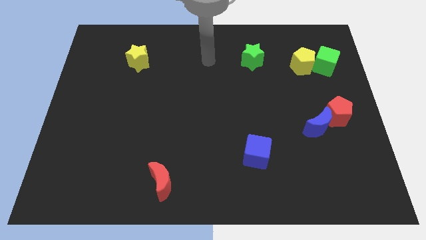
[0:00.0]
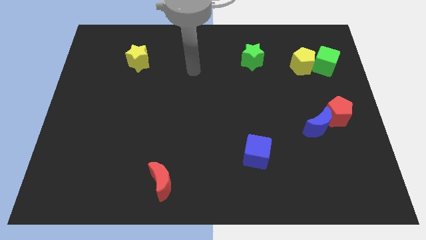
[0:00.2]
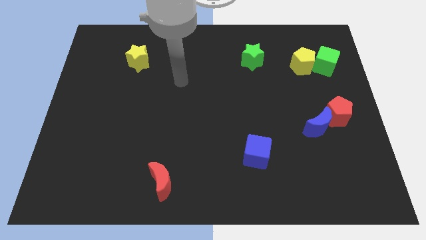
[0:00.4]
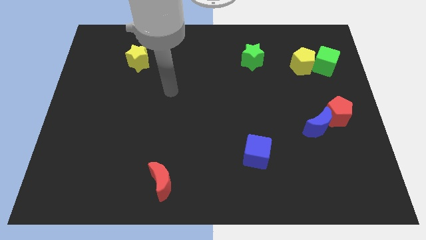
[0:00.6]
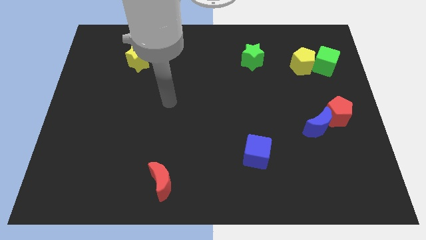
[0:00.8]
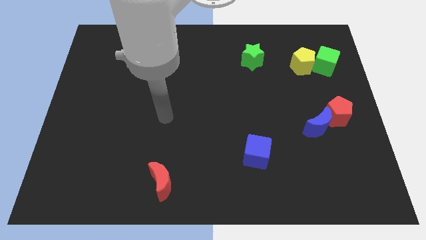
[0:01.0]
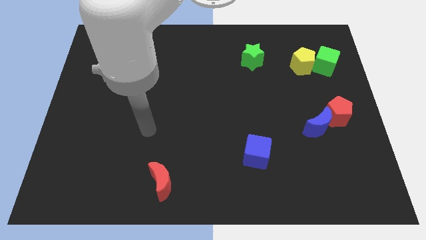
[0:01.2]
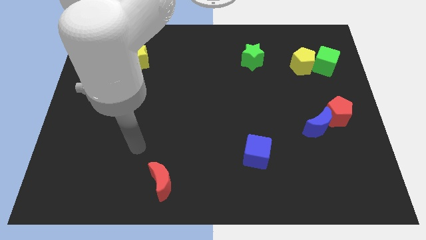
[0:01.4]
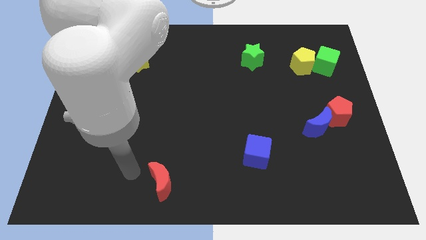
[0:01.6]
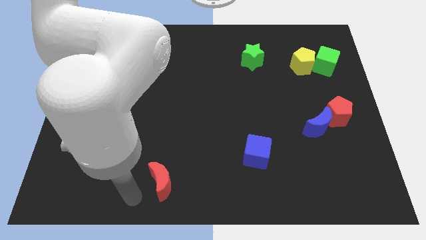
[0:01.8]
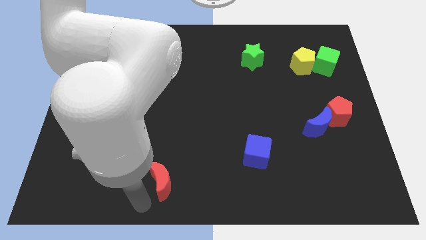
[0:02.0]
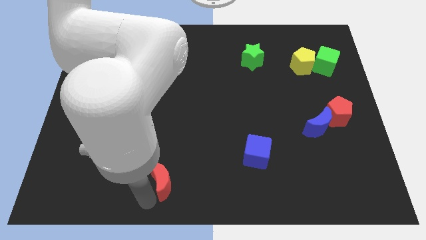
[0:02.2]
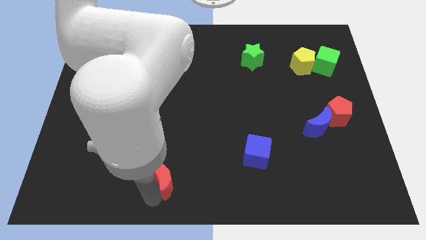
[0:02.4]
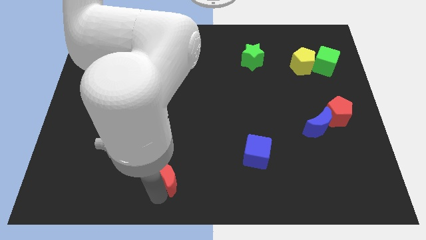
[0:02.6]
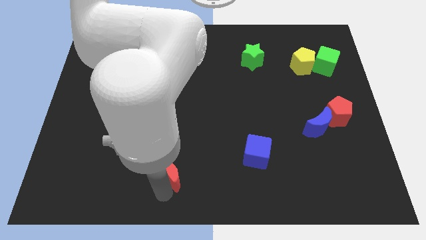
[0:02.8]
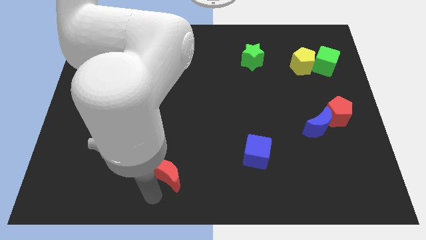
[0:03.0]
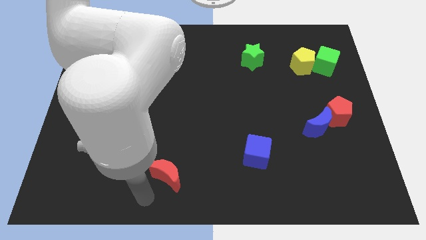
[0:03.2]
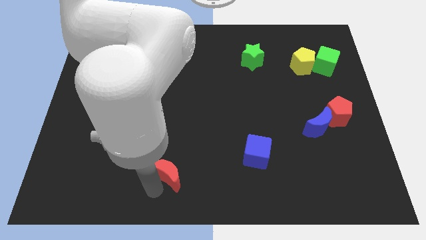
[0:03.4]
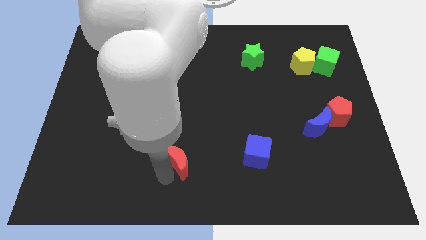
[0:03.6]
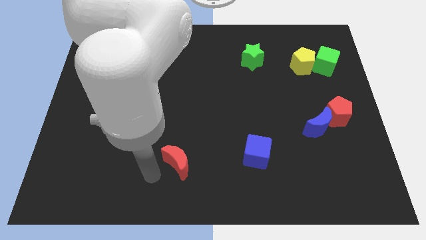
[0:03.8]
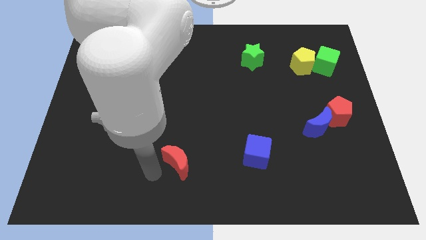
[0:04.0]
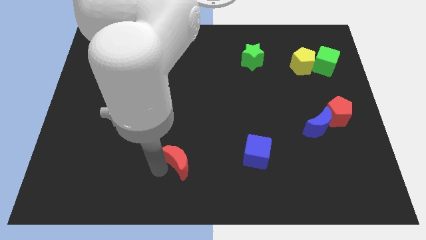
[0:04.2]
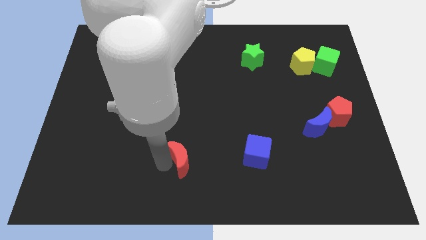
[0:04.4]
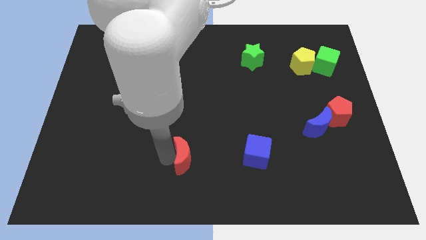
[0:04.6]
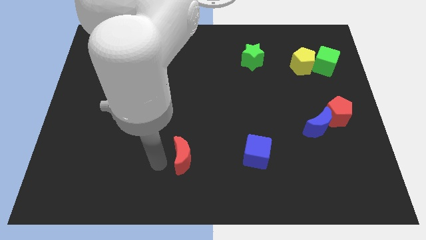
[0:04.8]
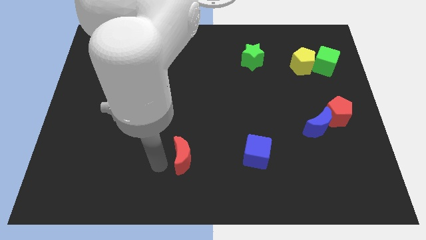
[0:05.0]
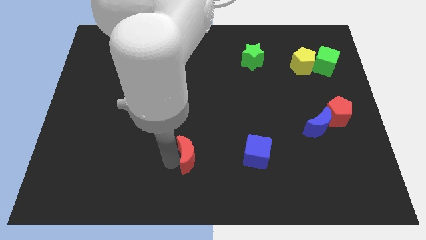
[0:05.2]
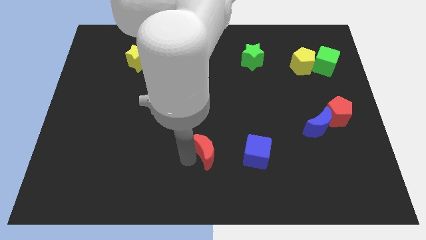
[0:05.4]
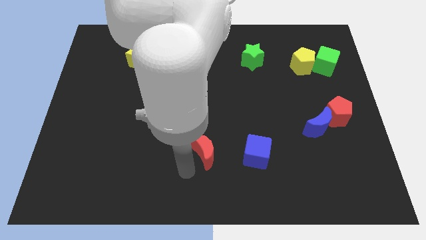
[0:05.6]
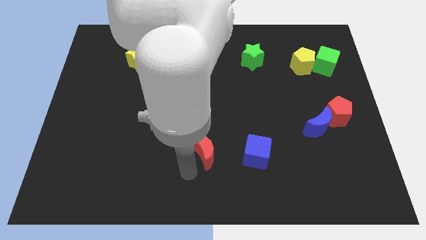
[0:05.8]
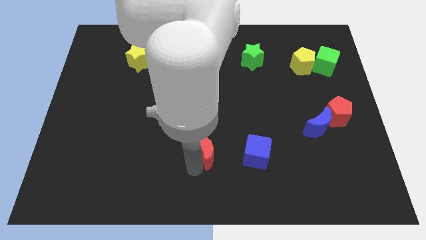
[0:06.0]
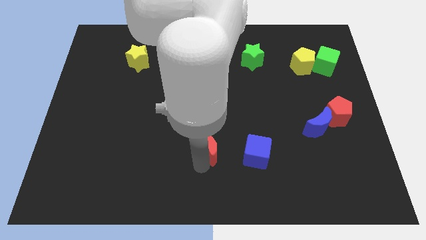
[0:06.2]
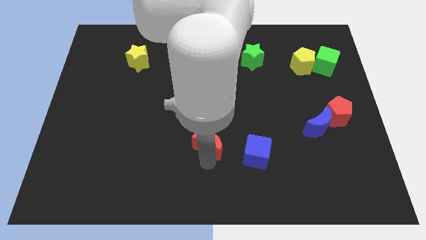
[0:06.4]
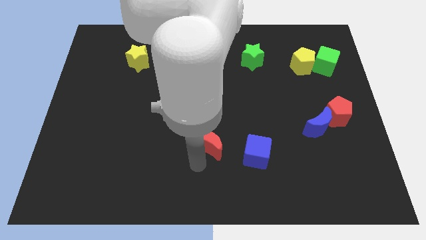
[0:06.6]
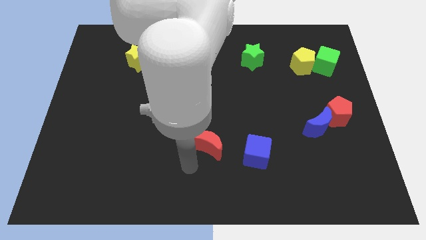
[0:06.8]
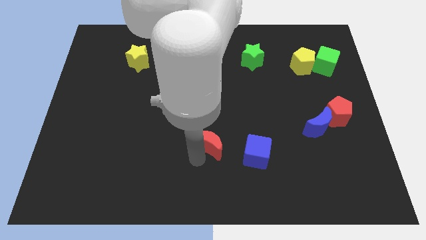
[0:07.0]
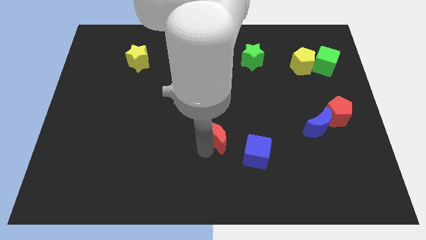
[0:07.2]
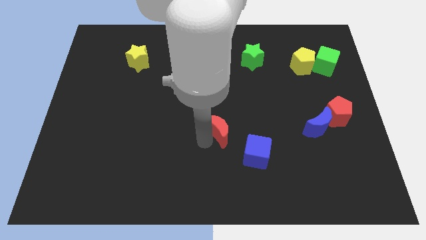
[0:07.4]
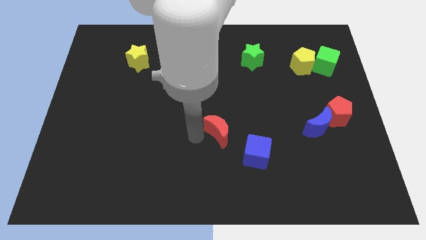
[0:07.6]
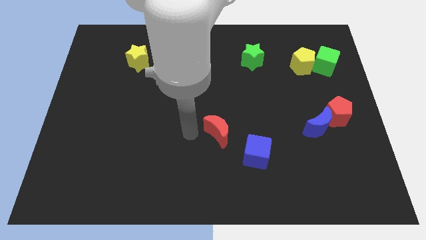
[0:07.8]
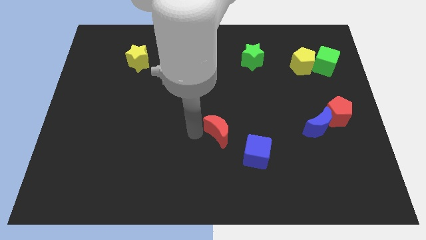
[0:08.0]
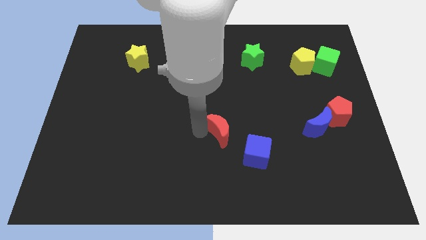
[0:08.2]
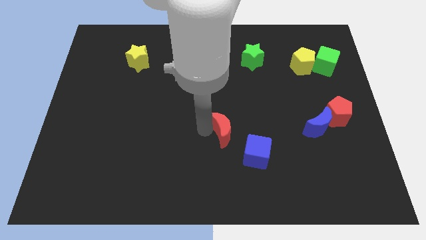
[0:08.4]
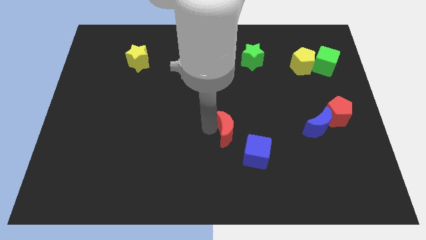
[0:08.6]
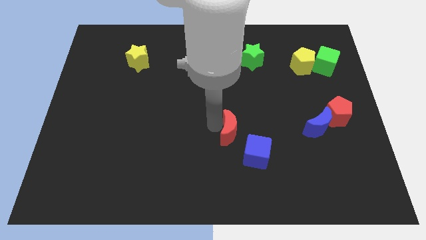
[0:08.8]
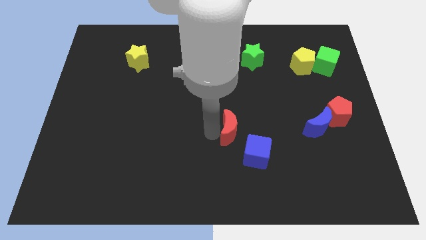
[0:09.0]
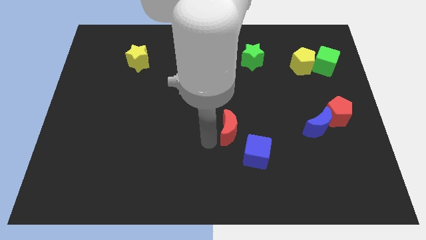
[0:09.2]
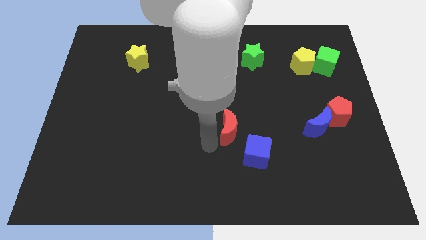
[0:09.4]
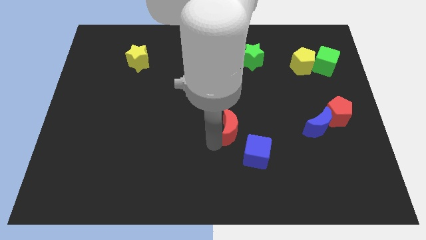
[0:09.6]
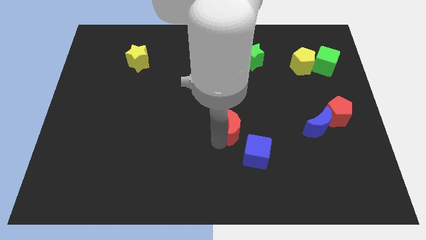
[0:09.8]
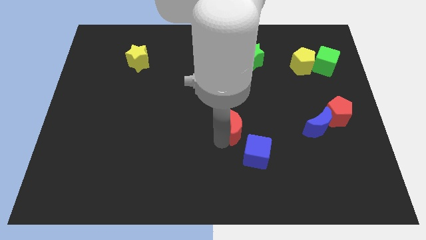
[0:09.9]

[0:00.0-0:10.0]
slide the red moon up and then to the right

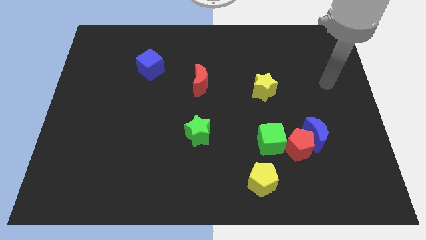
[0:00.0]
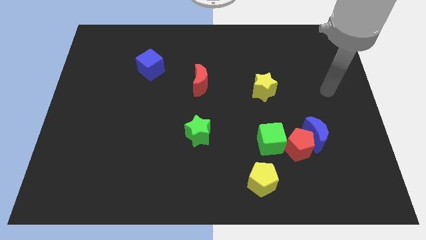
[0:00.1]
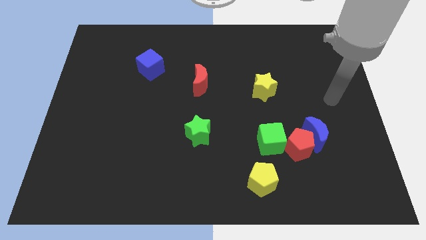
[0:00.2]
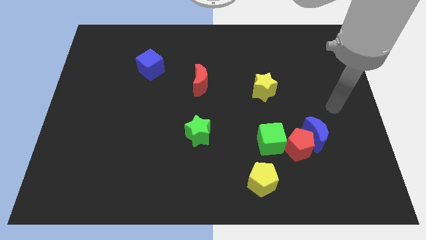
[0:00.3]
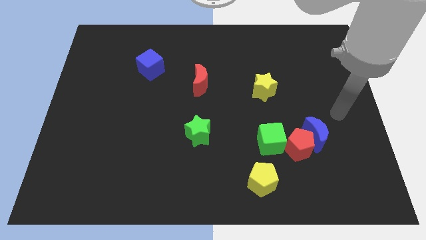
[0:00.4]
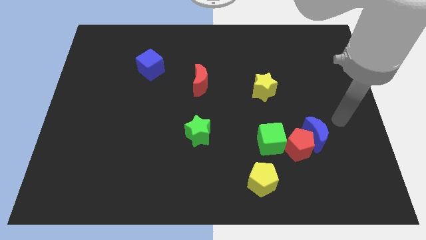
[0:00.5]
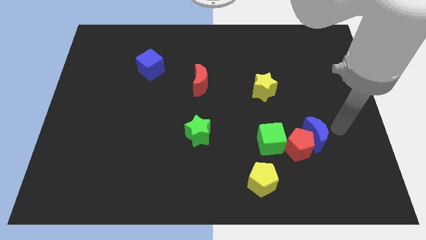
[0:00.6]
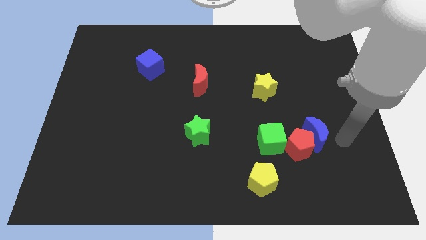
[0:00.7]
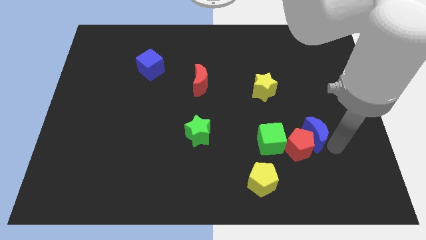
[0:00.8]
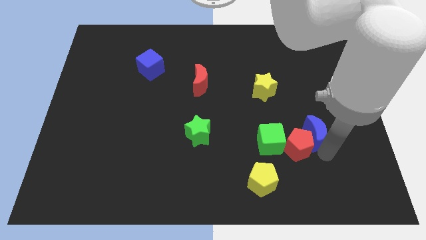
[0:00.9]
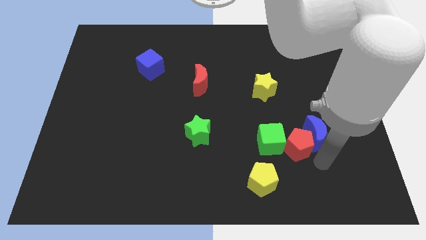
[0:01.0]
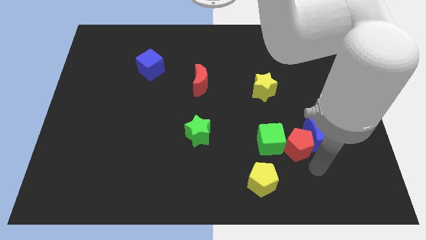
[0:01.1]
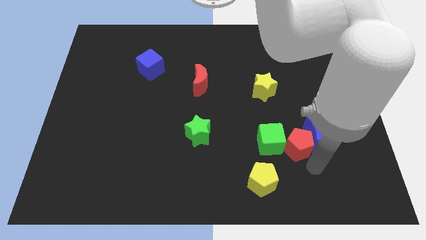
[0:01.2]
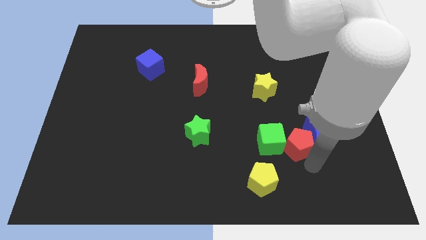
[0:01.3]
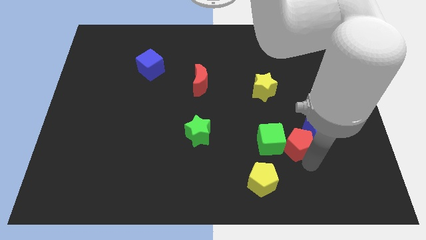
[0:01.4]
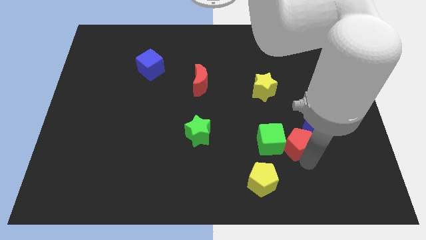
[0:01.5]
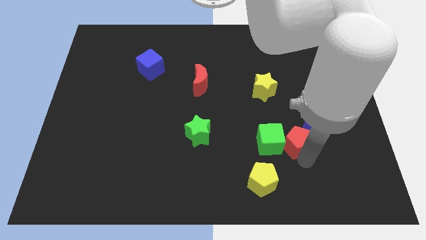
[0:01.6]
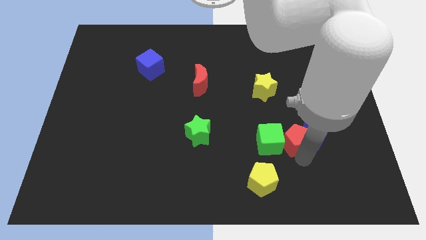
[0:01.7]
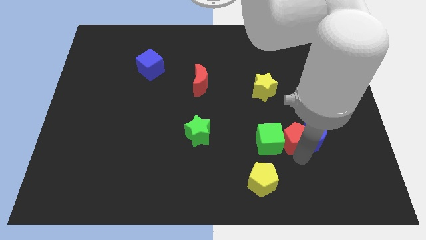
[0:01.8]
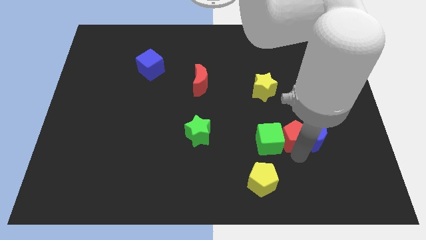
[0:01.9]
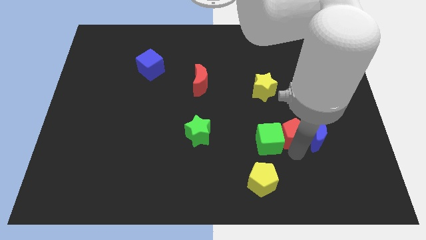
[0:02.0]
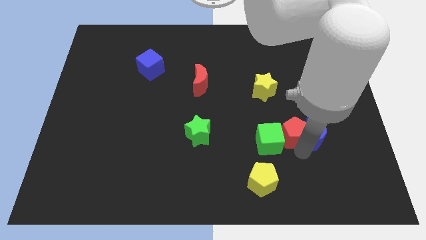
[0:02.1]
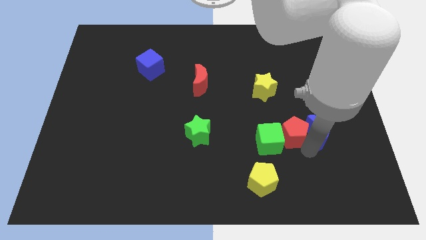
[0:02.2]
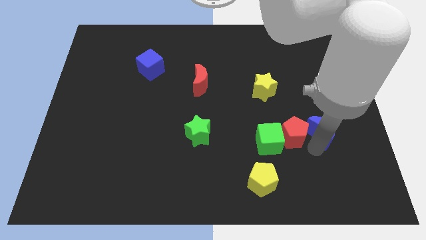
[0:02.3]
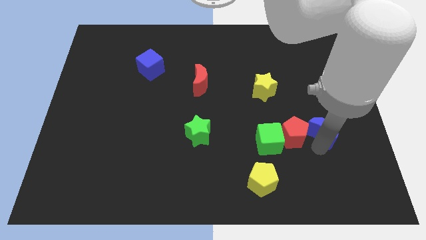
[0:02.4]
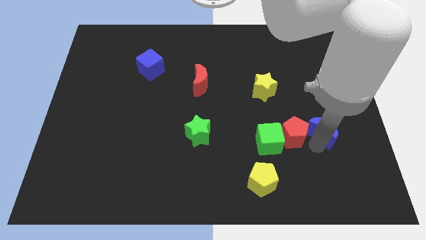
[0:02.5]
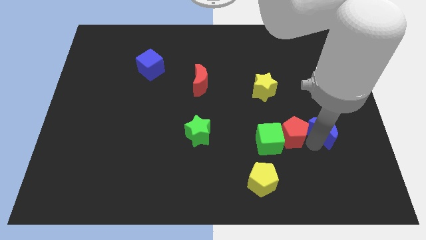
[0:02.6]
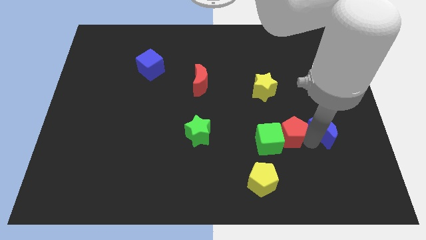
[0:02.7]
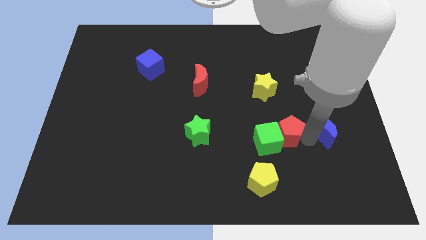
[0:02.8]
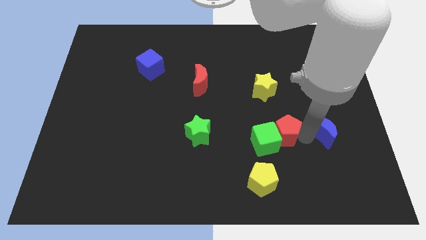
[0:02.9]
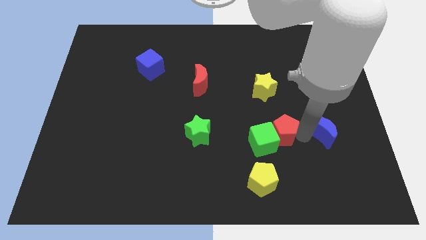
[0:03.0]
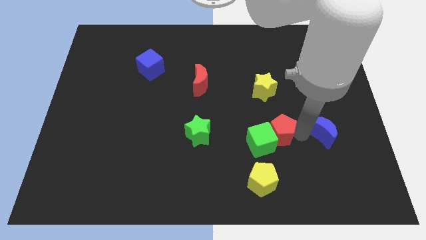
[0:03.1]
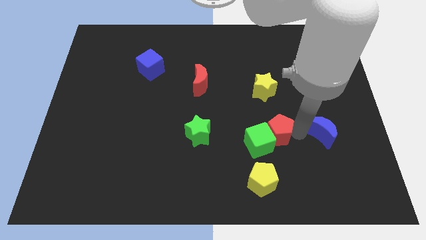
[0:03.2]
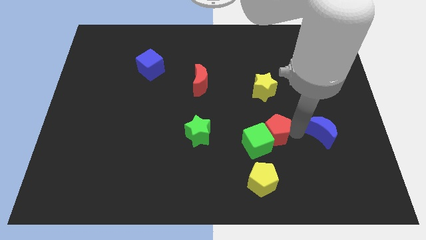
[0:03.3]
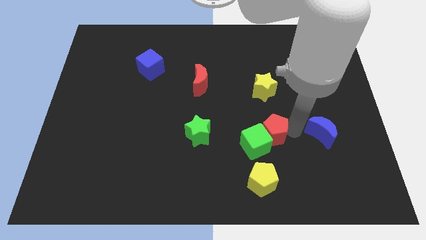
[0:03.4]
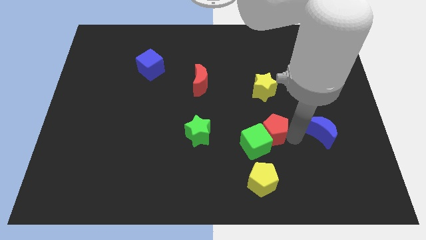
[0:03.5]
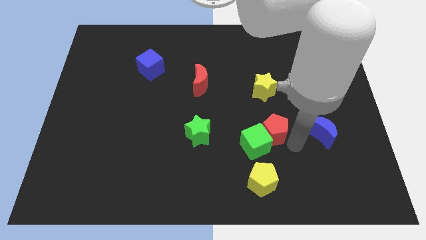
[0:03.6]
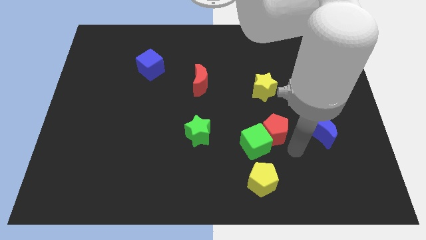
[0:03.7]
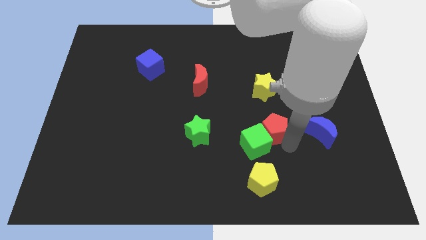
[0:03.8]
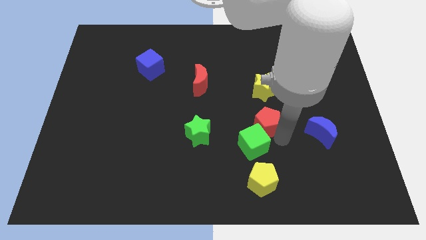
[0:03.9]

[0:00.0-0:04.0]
push the red pentagon diagonally up and to the left slightly
